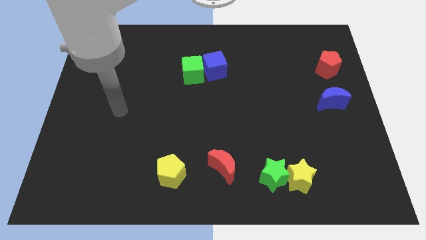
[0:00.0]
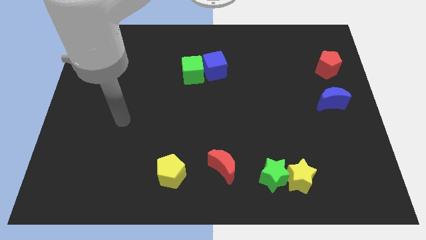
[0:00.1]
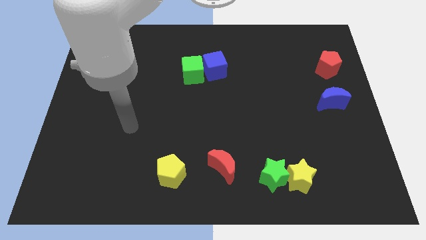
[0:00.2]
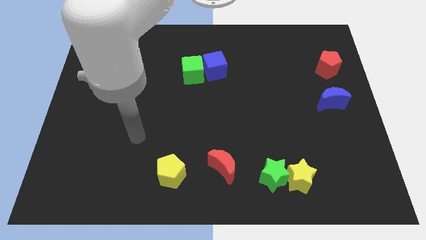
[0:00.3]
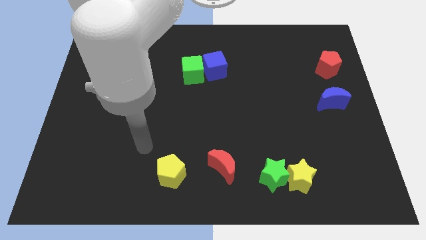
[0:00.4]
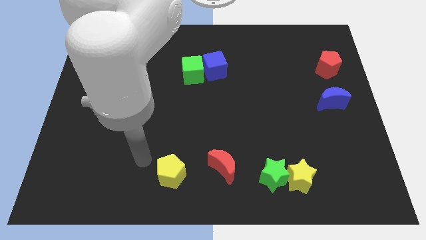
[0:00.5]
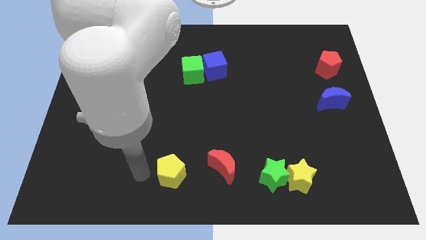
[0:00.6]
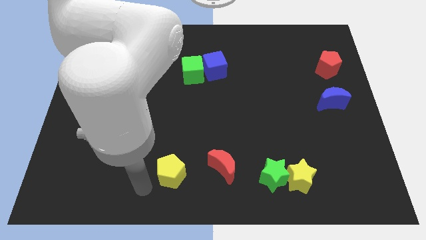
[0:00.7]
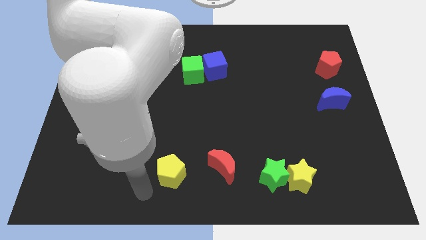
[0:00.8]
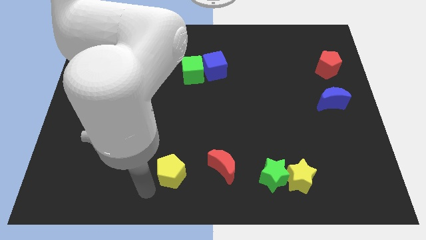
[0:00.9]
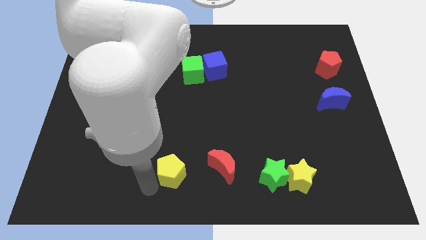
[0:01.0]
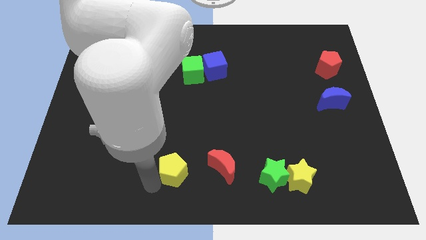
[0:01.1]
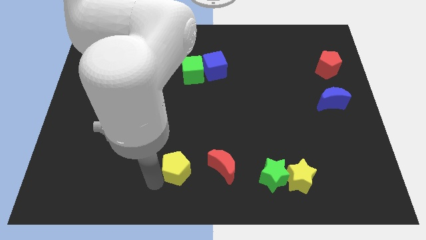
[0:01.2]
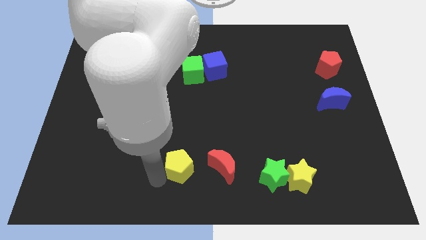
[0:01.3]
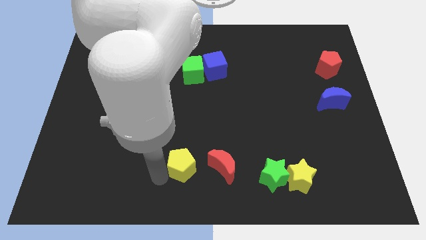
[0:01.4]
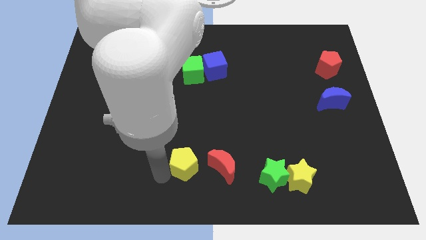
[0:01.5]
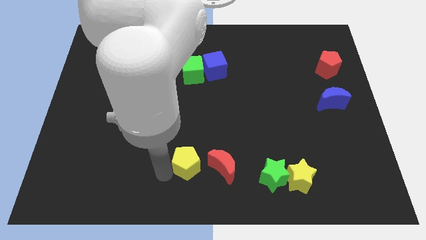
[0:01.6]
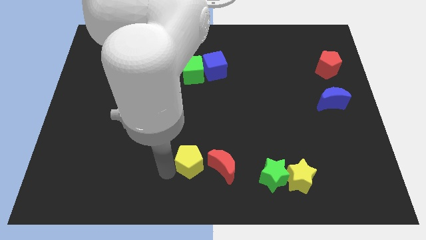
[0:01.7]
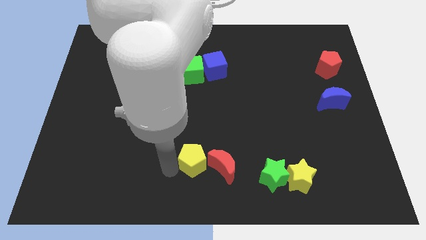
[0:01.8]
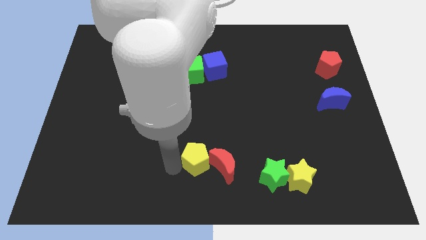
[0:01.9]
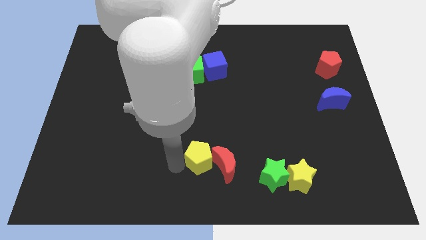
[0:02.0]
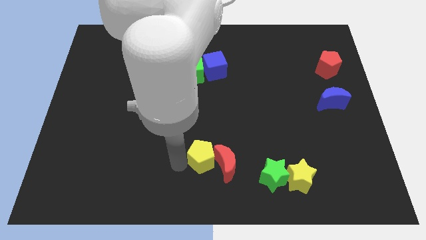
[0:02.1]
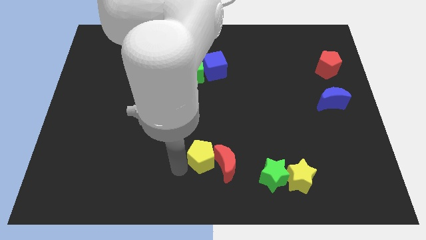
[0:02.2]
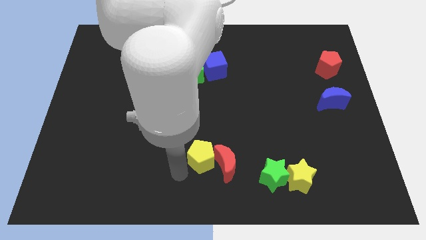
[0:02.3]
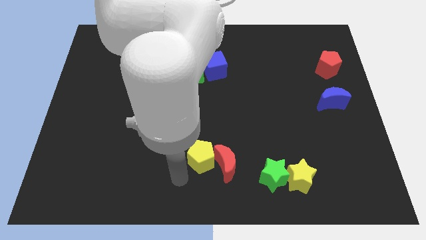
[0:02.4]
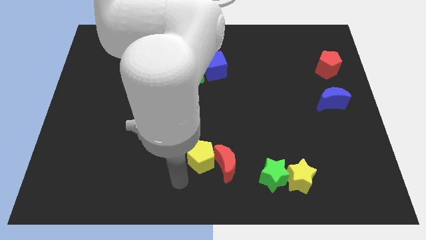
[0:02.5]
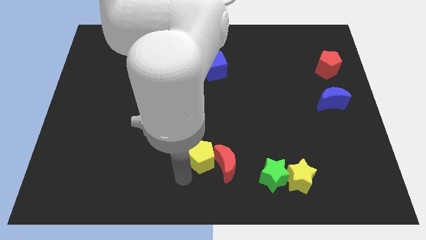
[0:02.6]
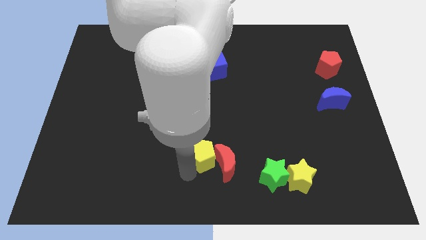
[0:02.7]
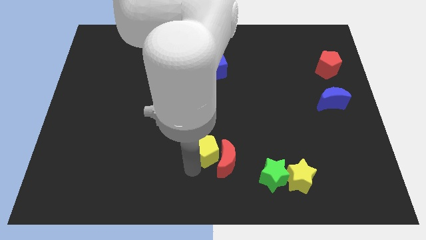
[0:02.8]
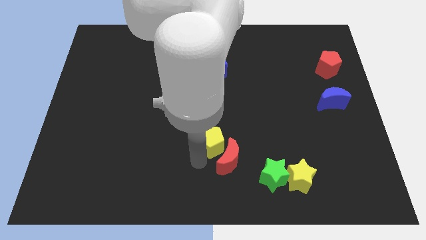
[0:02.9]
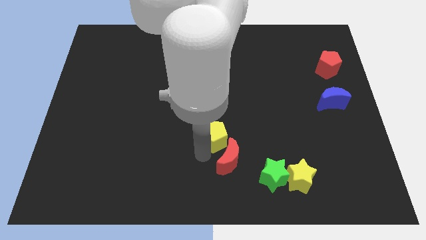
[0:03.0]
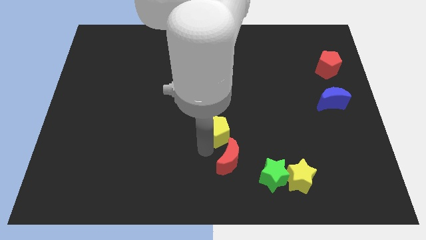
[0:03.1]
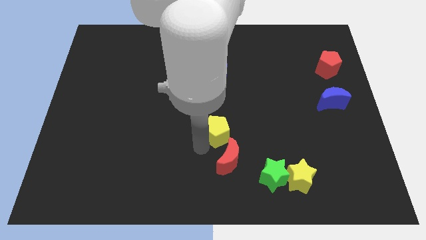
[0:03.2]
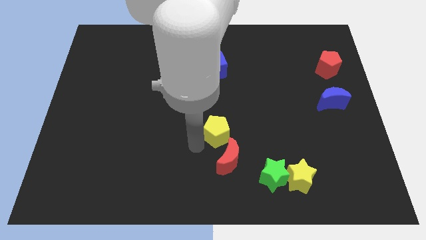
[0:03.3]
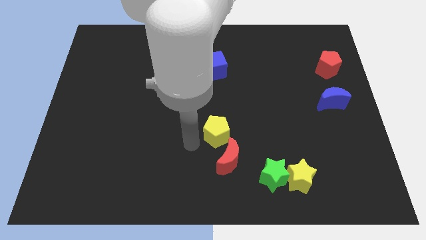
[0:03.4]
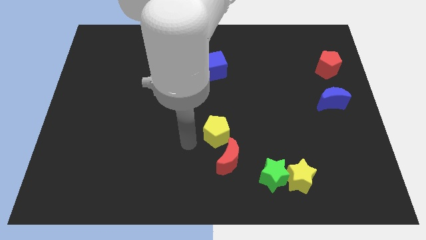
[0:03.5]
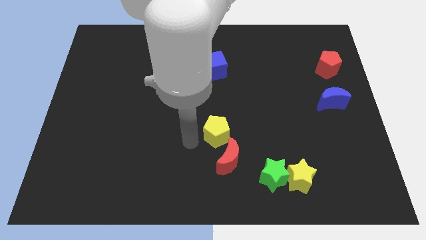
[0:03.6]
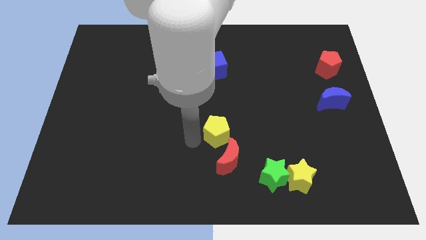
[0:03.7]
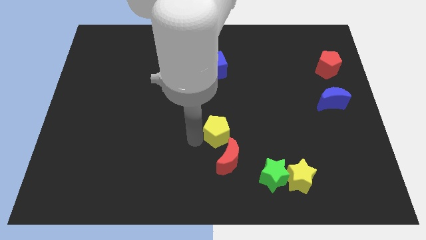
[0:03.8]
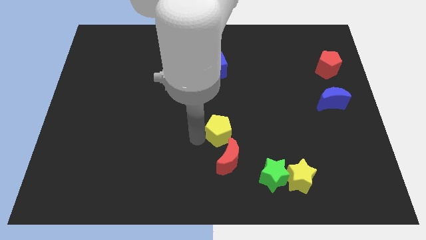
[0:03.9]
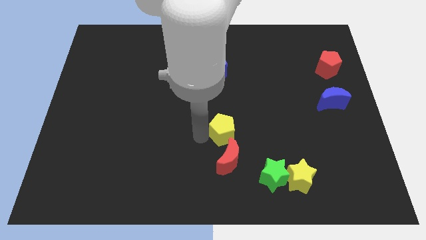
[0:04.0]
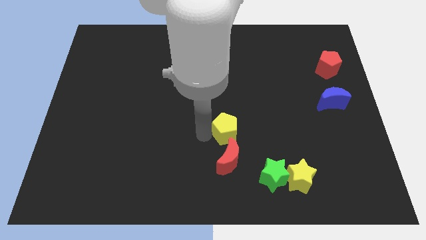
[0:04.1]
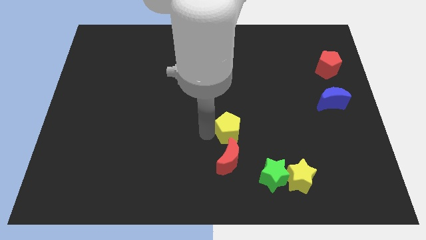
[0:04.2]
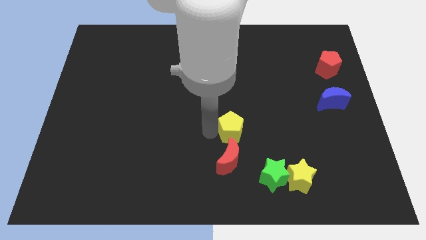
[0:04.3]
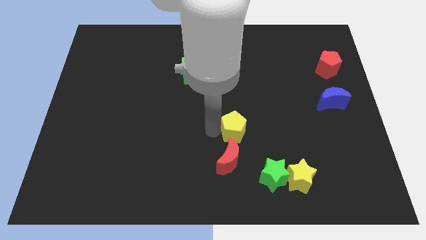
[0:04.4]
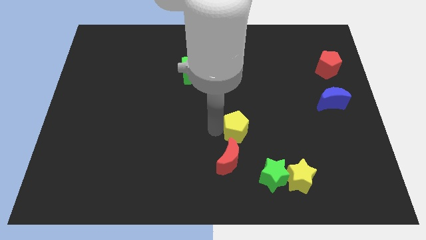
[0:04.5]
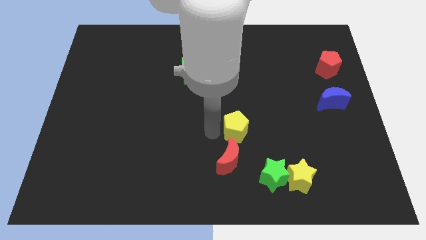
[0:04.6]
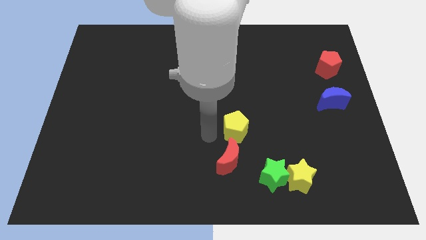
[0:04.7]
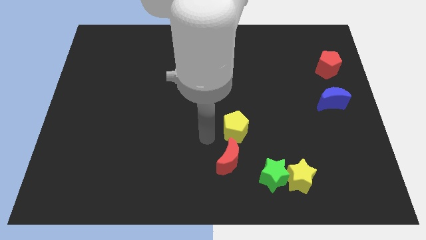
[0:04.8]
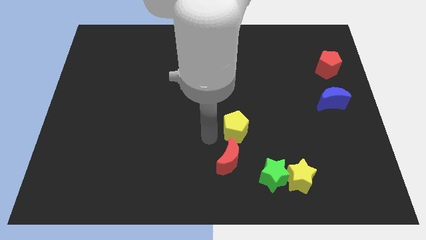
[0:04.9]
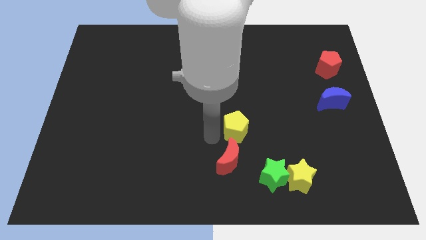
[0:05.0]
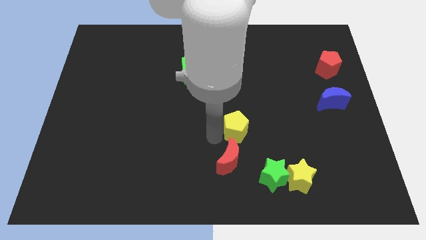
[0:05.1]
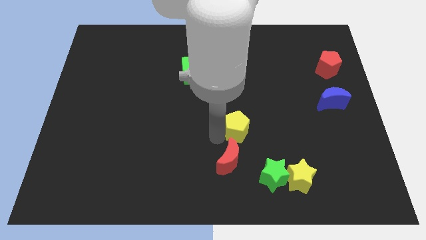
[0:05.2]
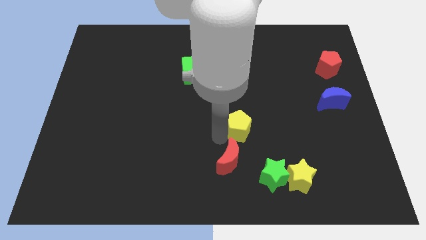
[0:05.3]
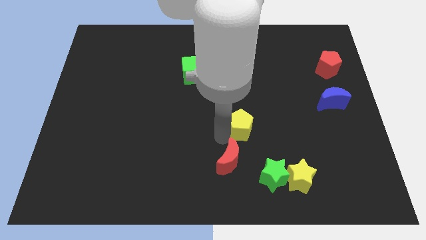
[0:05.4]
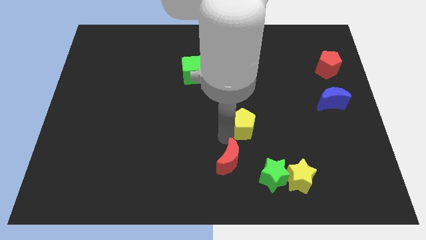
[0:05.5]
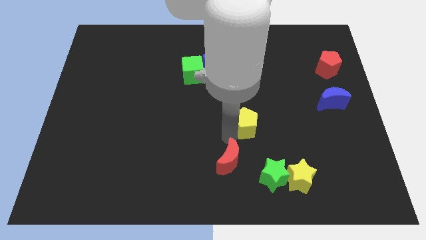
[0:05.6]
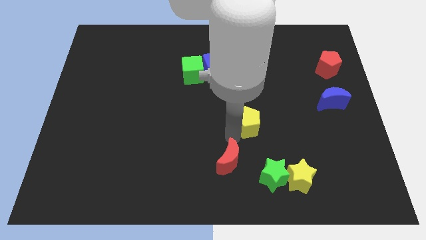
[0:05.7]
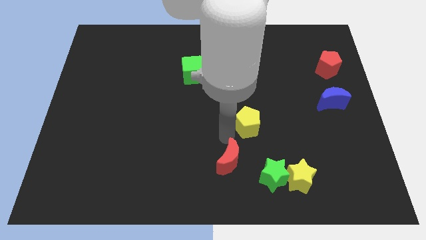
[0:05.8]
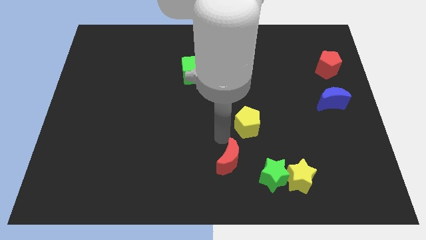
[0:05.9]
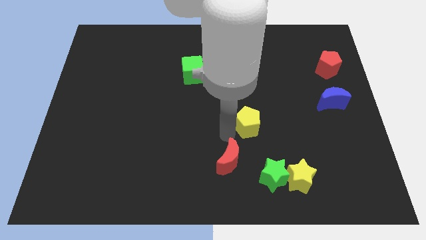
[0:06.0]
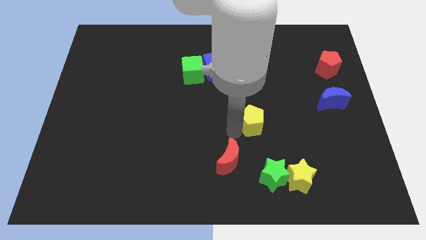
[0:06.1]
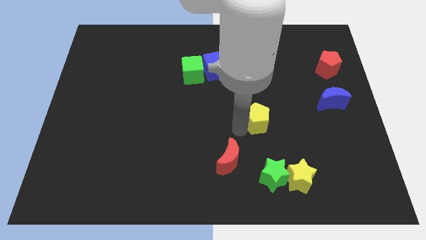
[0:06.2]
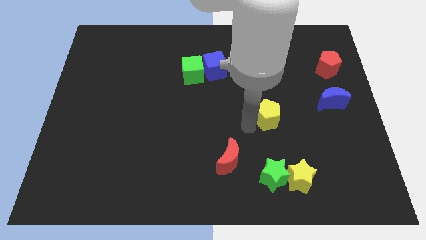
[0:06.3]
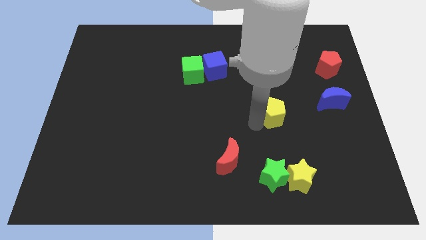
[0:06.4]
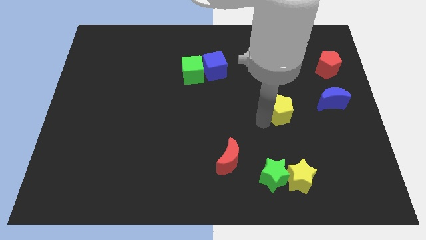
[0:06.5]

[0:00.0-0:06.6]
slide the yellow pentagon left of the blue moon
